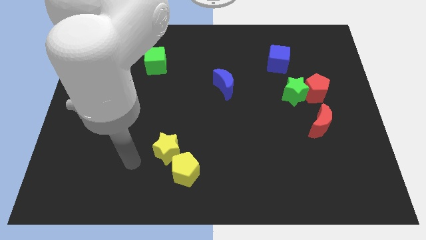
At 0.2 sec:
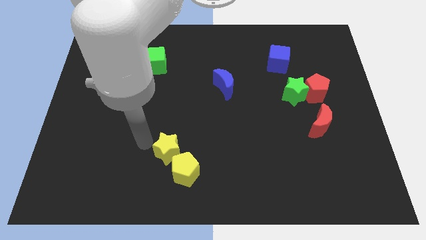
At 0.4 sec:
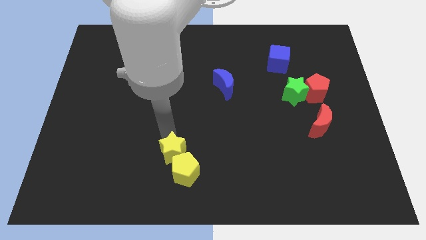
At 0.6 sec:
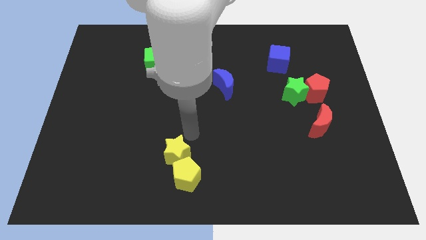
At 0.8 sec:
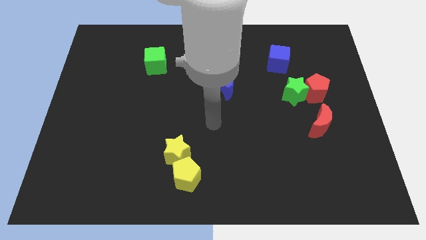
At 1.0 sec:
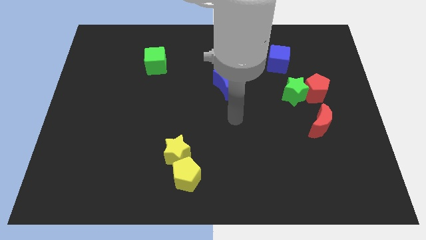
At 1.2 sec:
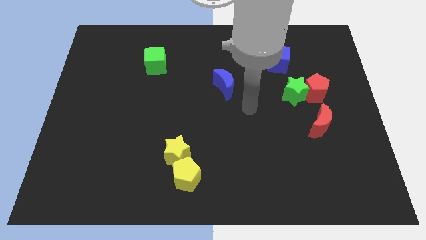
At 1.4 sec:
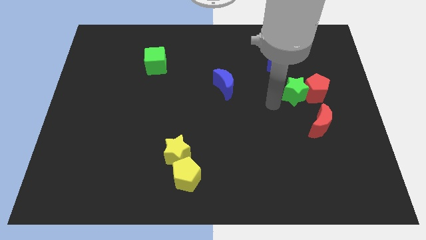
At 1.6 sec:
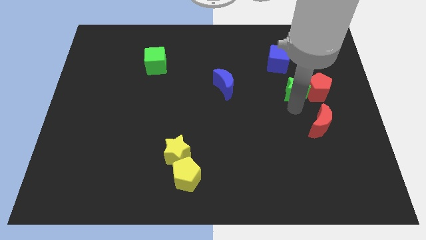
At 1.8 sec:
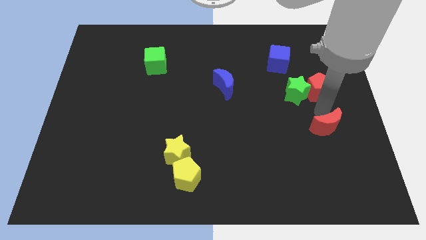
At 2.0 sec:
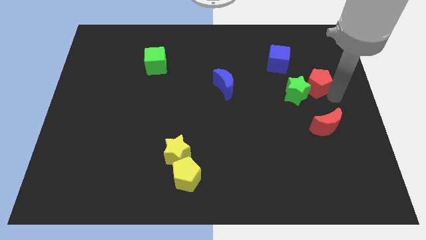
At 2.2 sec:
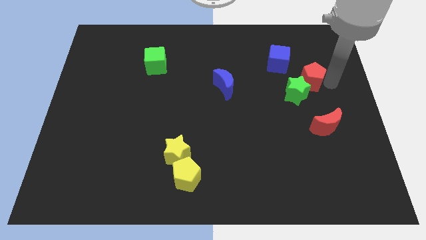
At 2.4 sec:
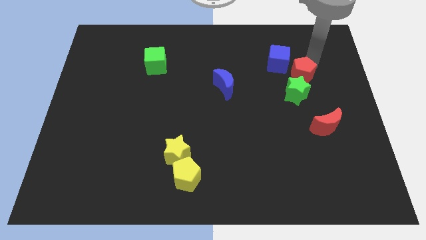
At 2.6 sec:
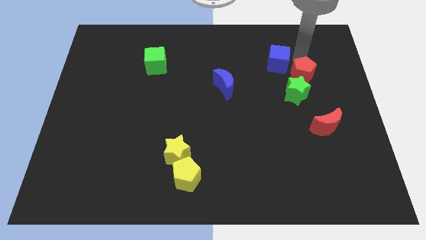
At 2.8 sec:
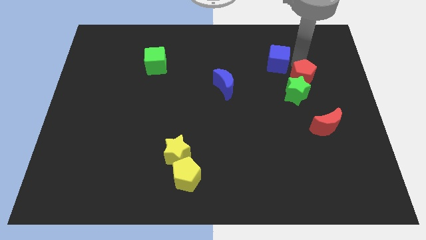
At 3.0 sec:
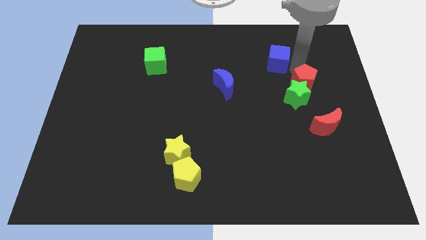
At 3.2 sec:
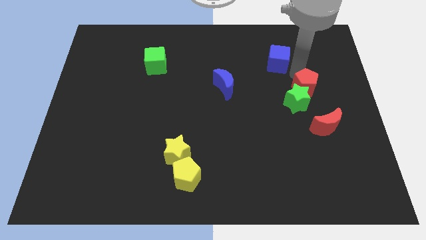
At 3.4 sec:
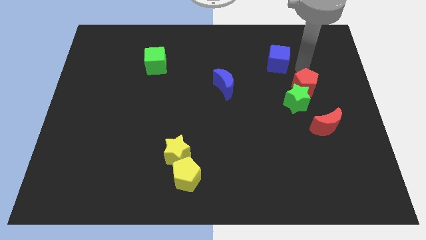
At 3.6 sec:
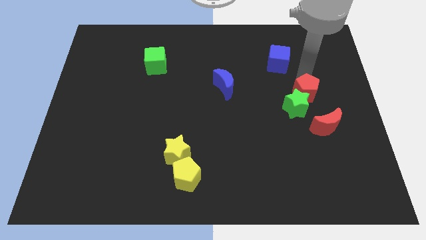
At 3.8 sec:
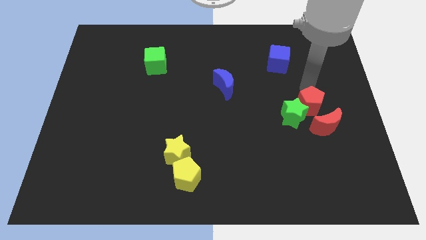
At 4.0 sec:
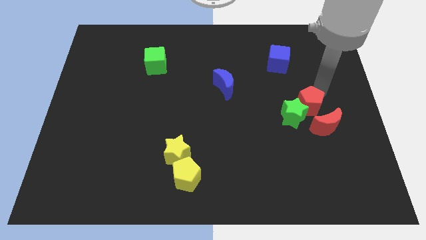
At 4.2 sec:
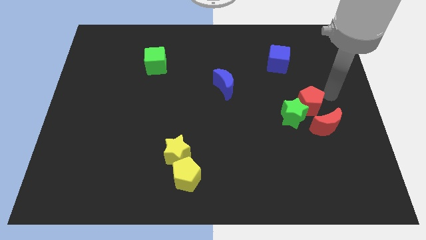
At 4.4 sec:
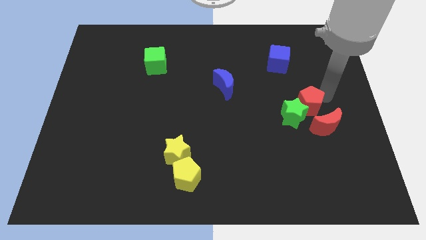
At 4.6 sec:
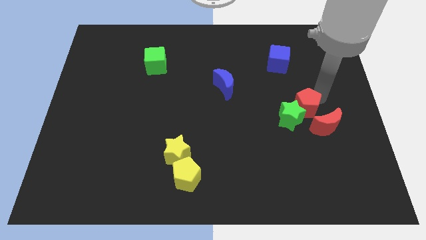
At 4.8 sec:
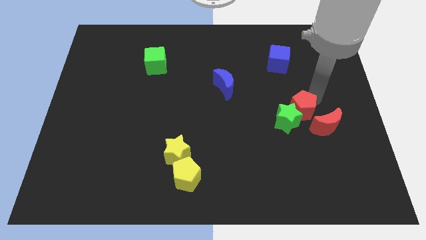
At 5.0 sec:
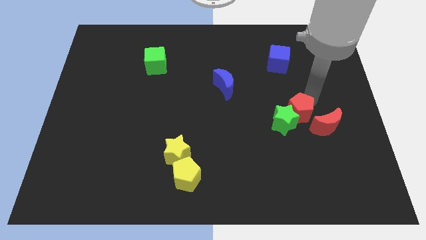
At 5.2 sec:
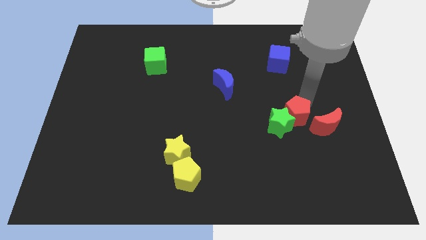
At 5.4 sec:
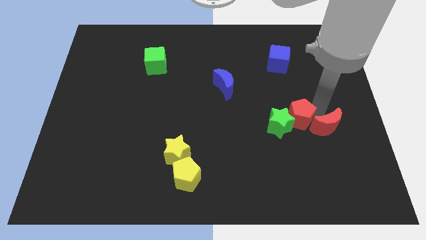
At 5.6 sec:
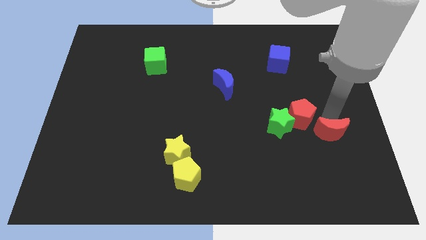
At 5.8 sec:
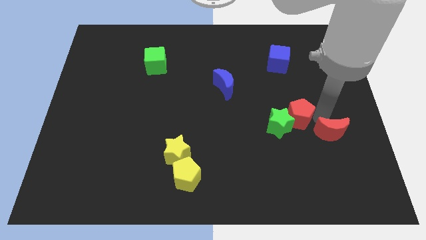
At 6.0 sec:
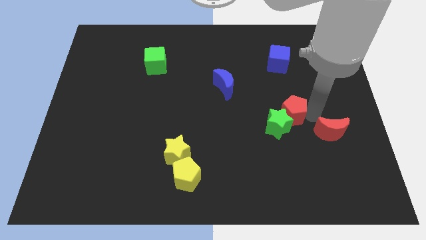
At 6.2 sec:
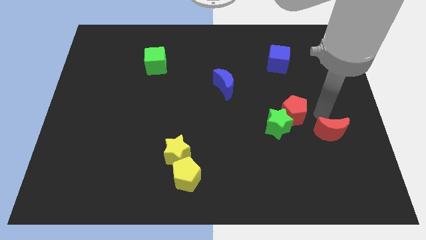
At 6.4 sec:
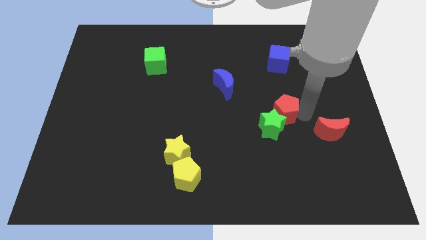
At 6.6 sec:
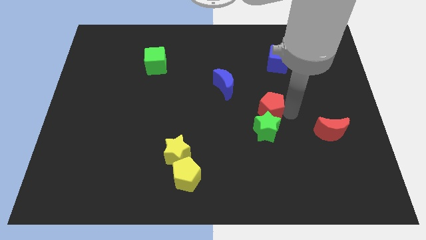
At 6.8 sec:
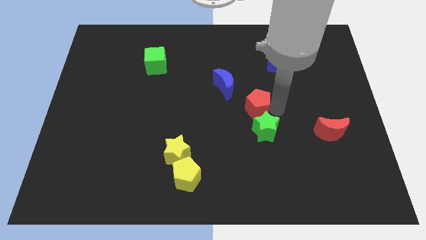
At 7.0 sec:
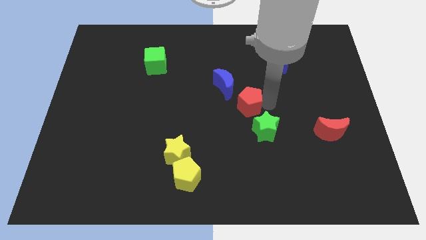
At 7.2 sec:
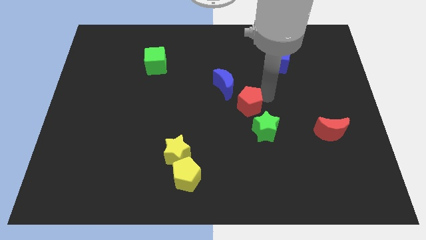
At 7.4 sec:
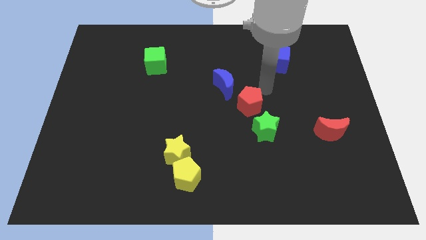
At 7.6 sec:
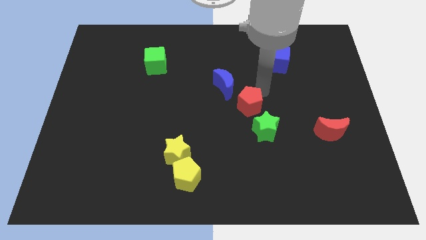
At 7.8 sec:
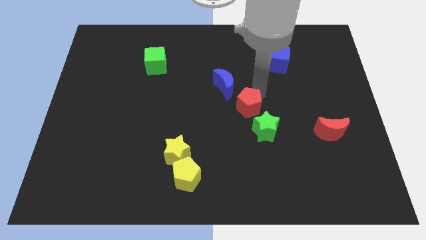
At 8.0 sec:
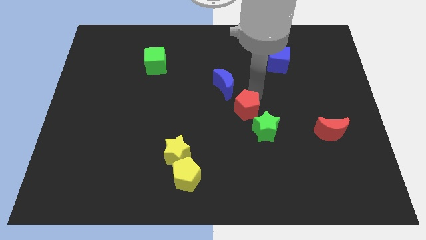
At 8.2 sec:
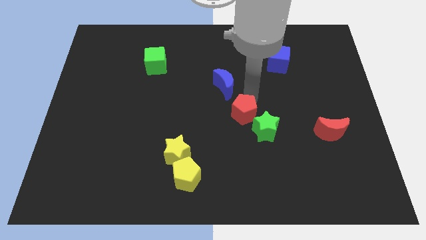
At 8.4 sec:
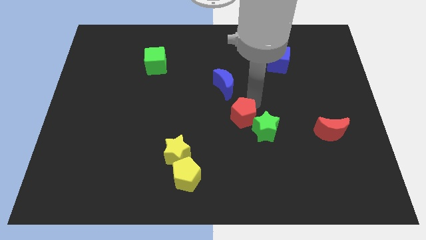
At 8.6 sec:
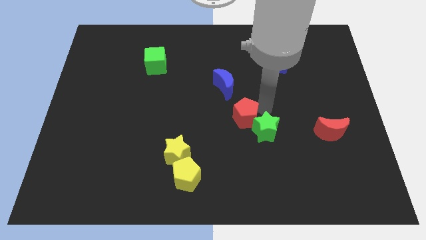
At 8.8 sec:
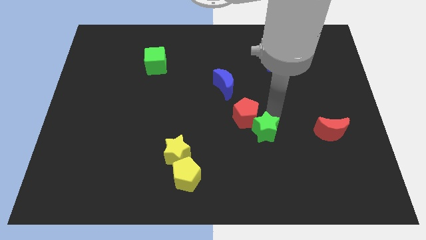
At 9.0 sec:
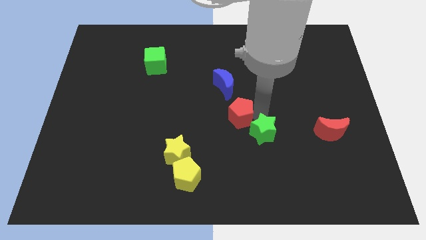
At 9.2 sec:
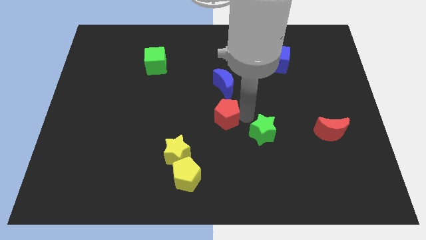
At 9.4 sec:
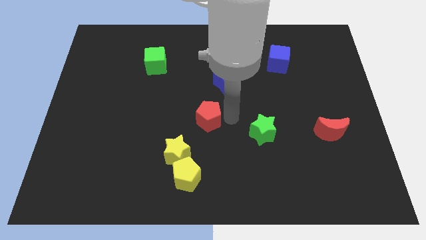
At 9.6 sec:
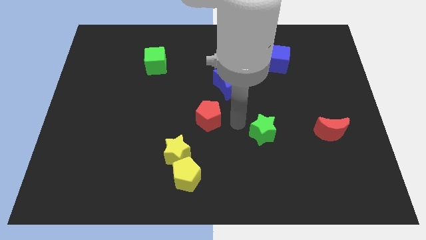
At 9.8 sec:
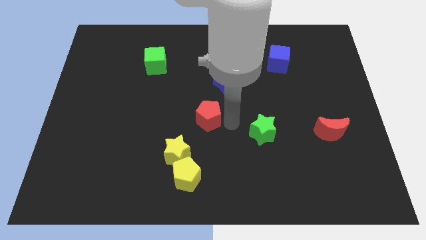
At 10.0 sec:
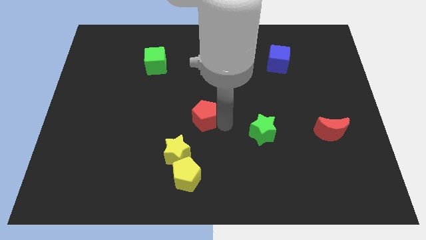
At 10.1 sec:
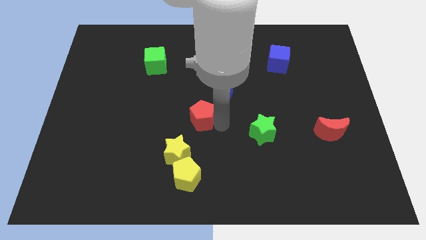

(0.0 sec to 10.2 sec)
put the red pentagon above the yellow star

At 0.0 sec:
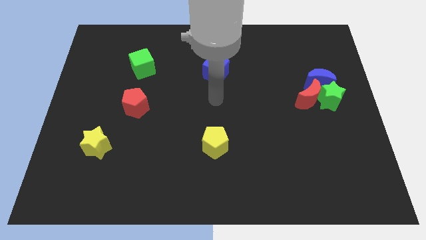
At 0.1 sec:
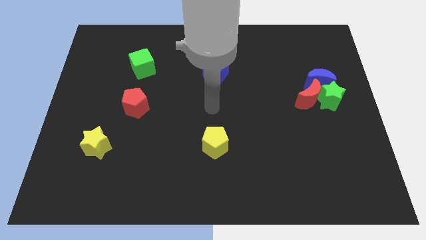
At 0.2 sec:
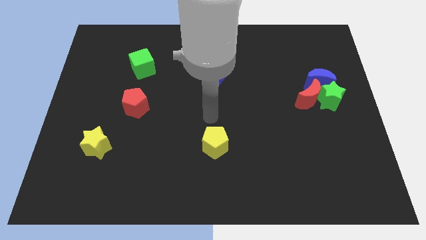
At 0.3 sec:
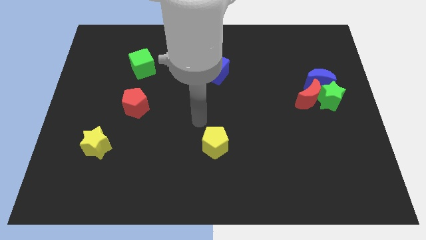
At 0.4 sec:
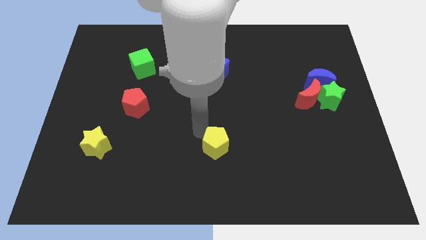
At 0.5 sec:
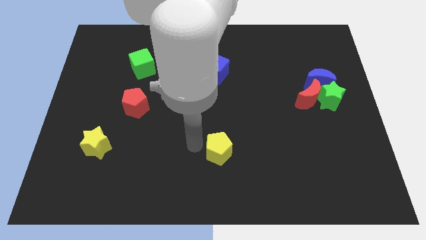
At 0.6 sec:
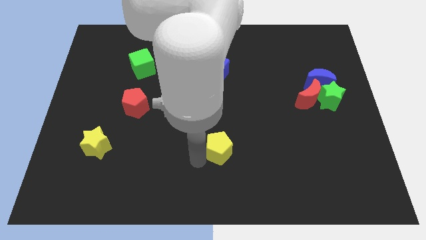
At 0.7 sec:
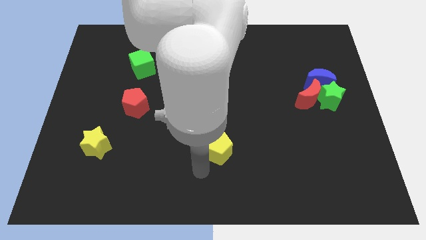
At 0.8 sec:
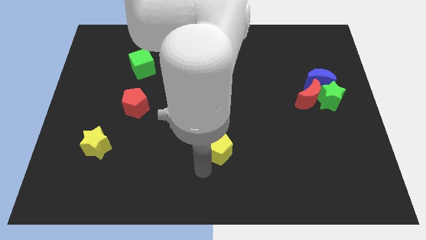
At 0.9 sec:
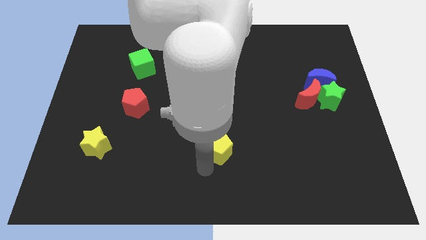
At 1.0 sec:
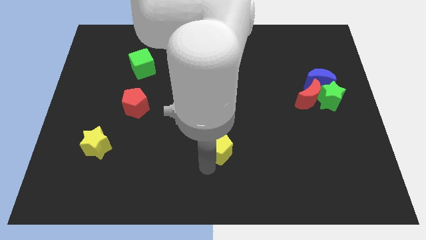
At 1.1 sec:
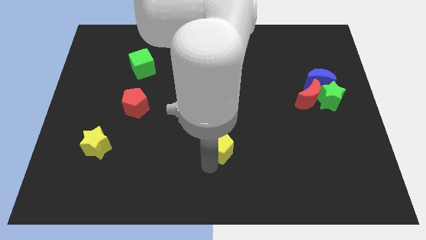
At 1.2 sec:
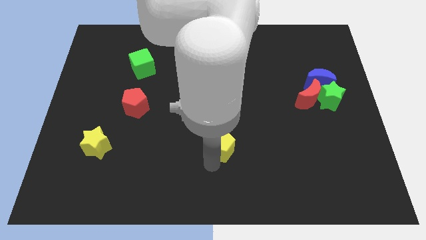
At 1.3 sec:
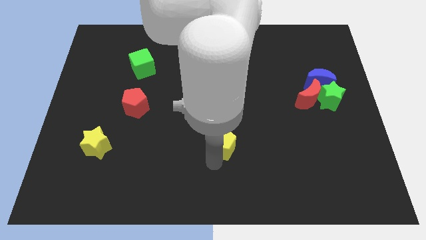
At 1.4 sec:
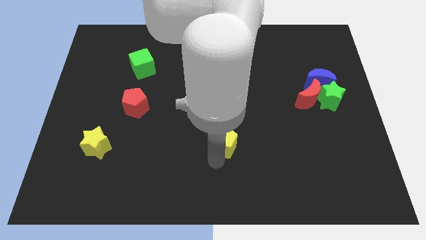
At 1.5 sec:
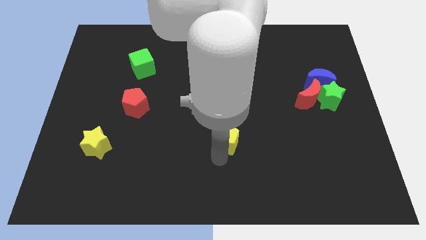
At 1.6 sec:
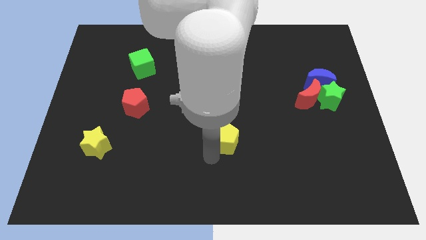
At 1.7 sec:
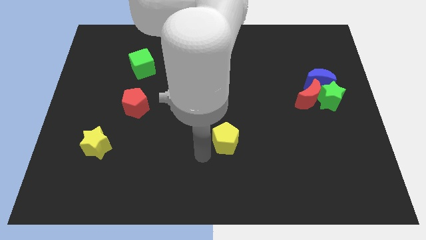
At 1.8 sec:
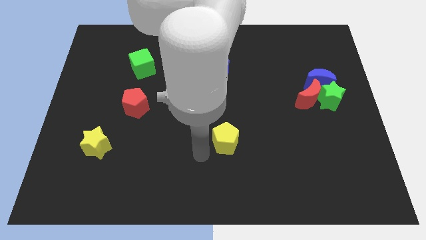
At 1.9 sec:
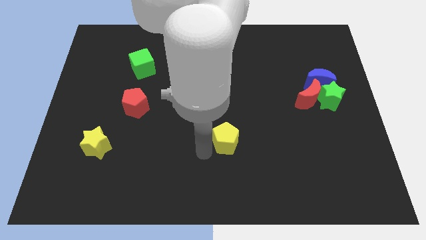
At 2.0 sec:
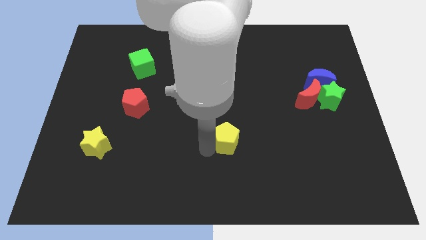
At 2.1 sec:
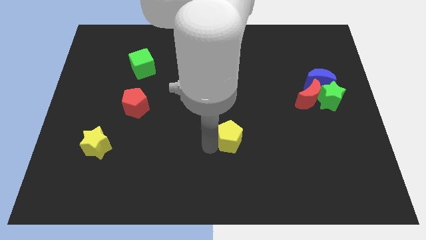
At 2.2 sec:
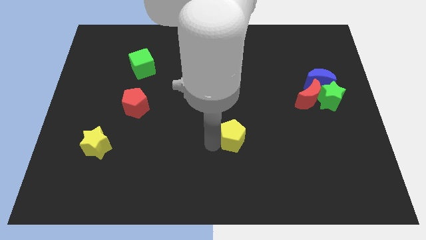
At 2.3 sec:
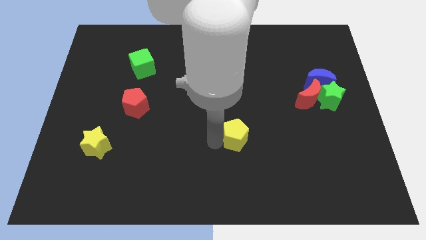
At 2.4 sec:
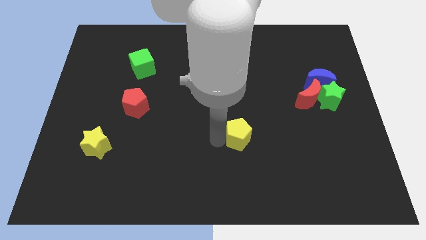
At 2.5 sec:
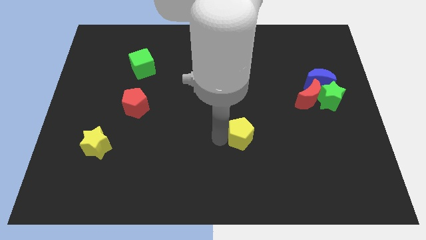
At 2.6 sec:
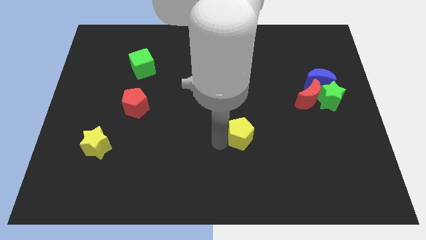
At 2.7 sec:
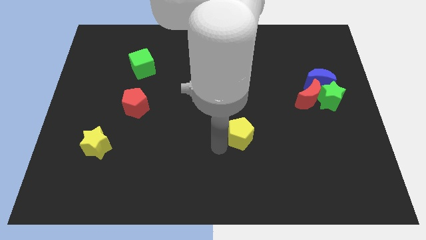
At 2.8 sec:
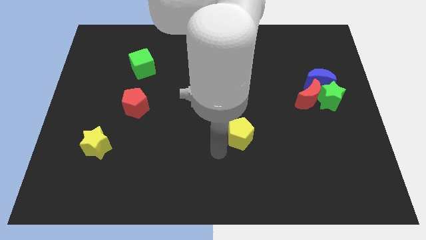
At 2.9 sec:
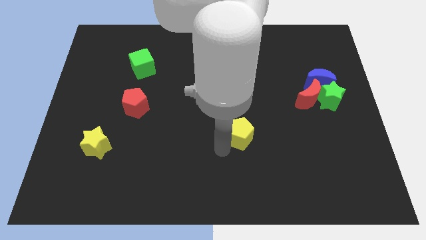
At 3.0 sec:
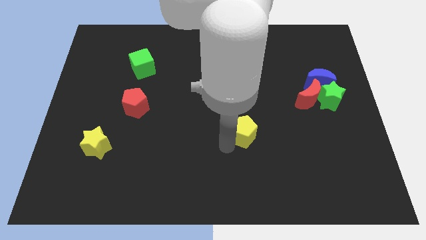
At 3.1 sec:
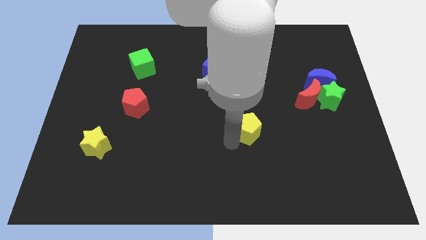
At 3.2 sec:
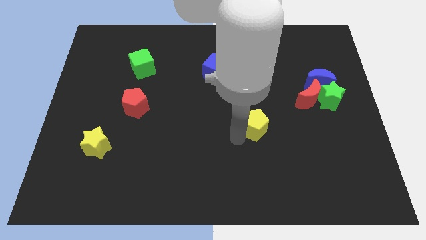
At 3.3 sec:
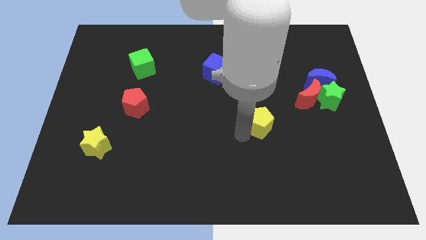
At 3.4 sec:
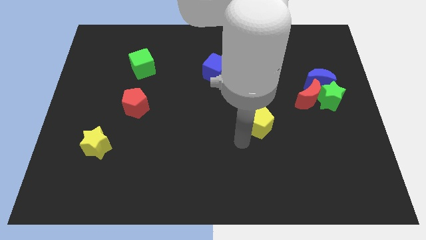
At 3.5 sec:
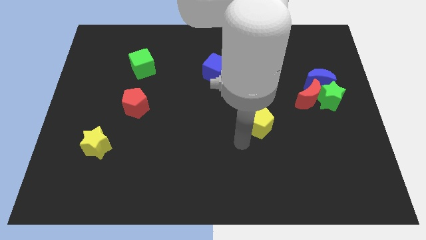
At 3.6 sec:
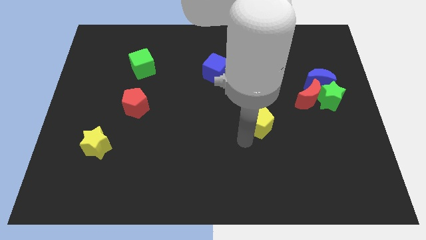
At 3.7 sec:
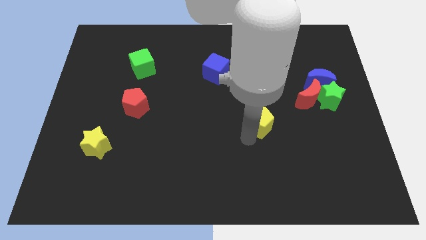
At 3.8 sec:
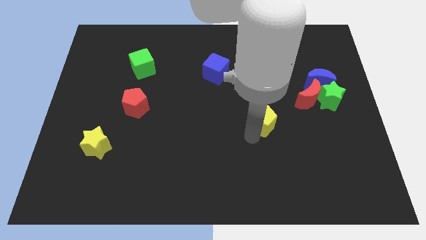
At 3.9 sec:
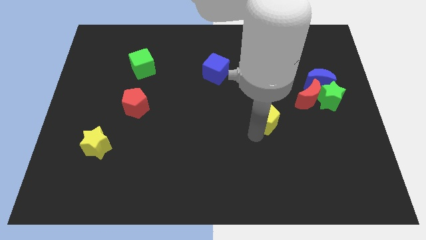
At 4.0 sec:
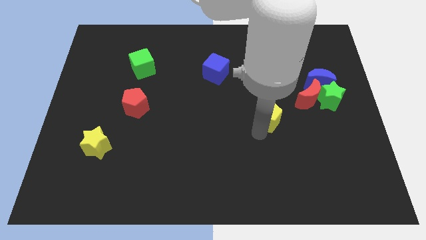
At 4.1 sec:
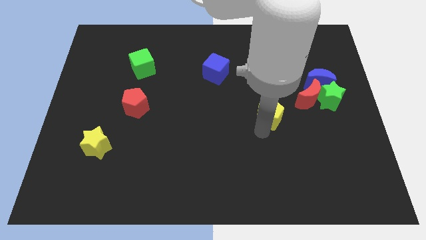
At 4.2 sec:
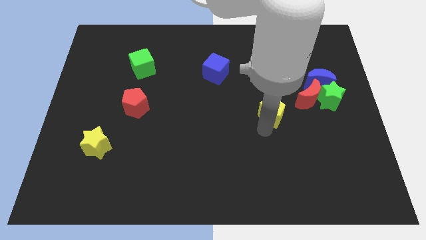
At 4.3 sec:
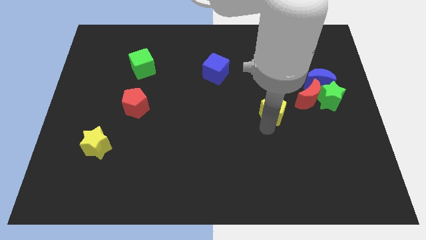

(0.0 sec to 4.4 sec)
push the yellow pentagon to the left of the green star
